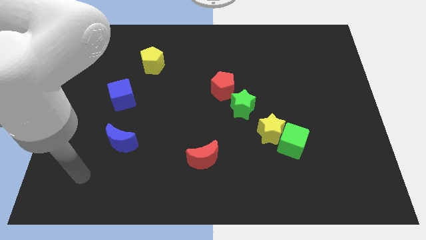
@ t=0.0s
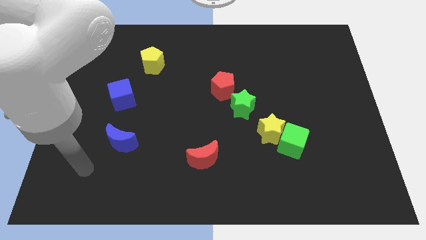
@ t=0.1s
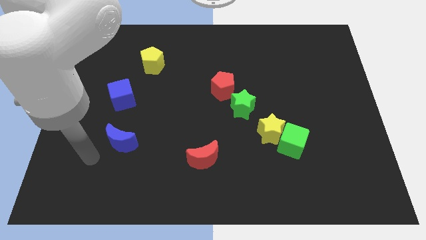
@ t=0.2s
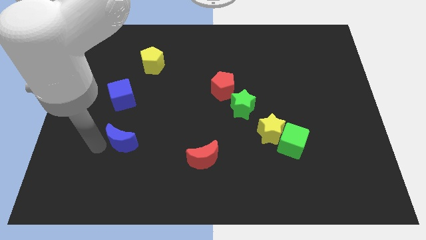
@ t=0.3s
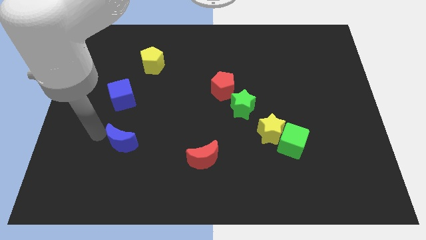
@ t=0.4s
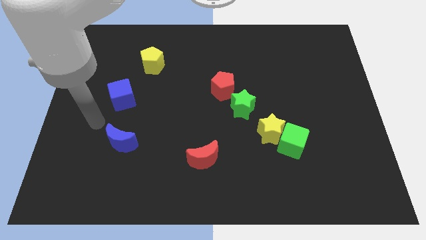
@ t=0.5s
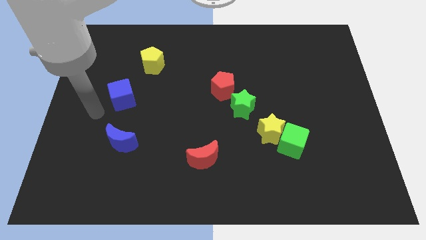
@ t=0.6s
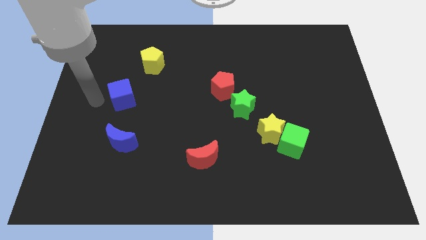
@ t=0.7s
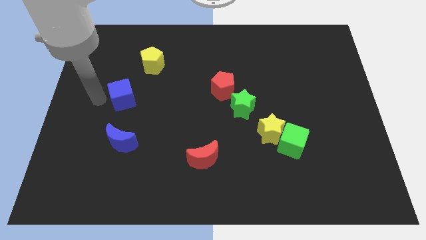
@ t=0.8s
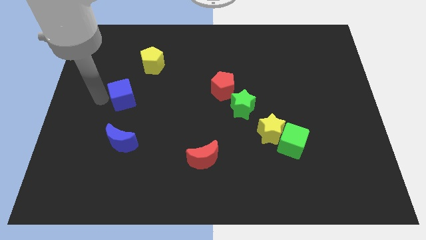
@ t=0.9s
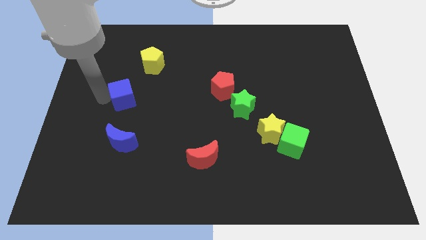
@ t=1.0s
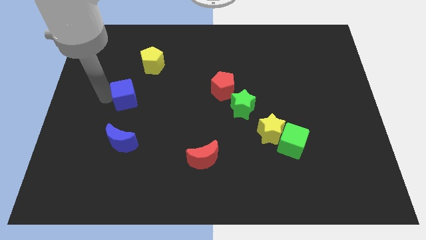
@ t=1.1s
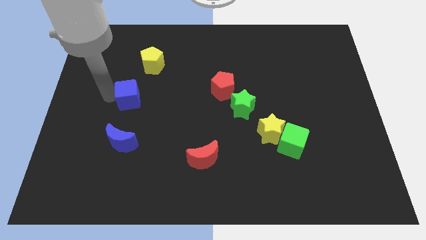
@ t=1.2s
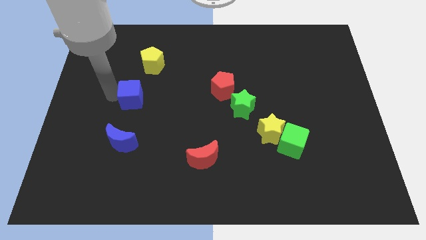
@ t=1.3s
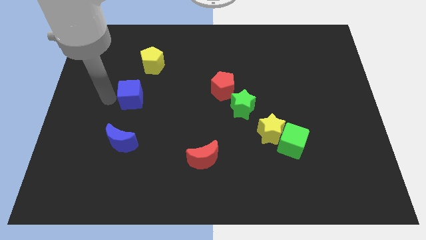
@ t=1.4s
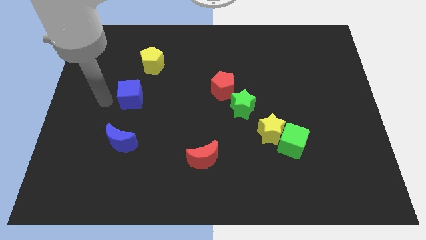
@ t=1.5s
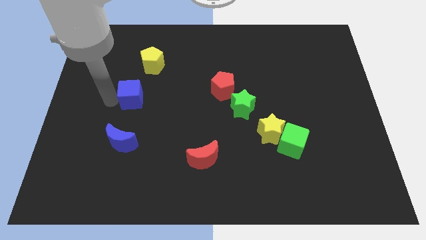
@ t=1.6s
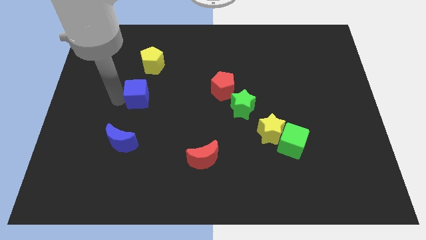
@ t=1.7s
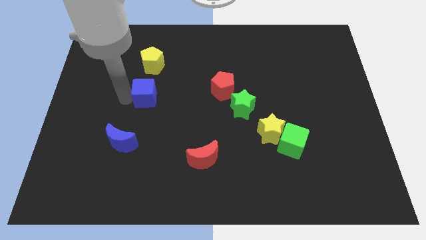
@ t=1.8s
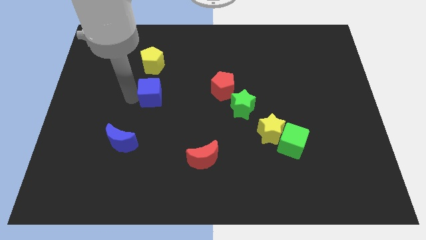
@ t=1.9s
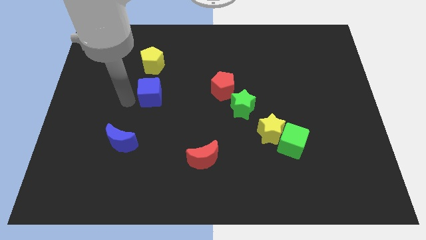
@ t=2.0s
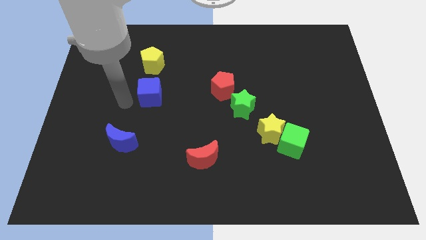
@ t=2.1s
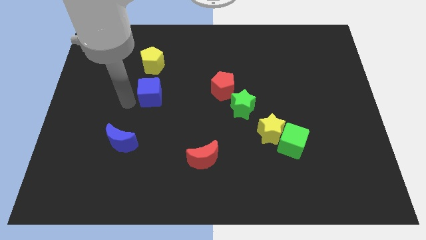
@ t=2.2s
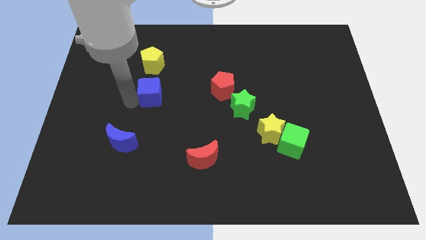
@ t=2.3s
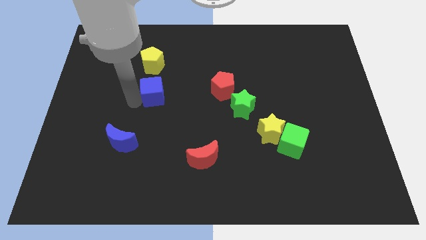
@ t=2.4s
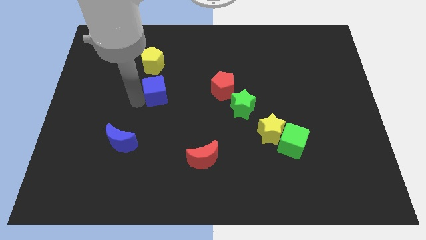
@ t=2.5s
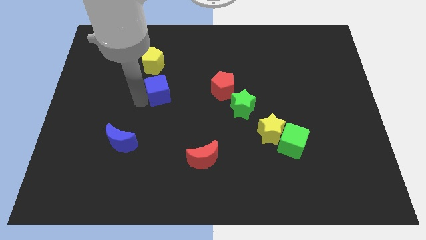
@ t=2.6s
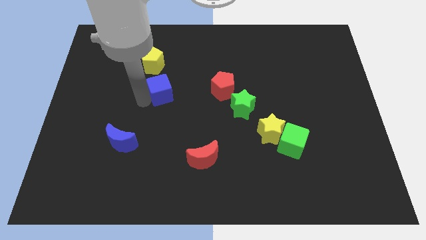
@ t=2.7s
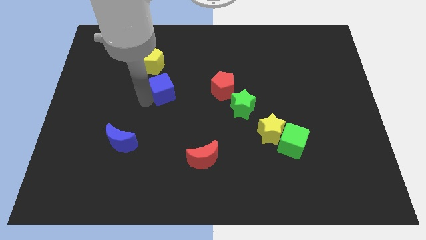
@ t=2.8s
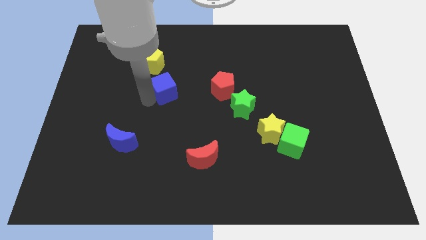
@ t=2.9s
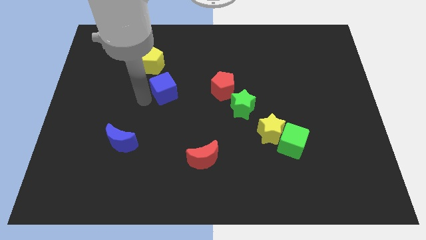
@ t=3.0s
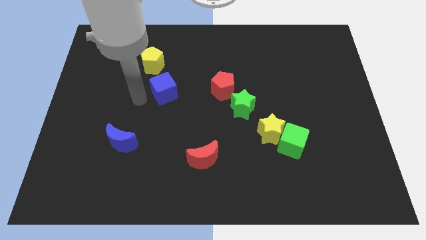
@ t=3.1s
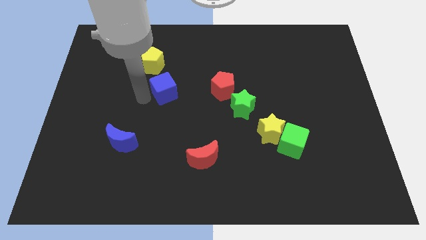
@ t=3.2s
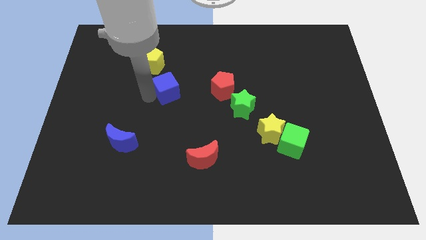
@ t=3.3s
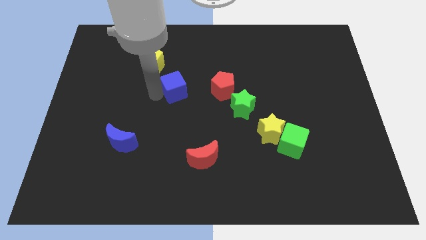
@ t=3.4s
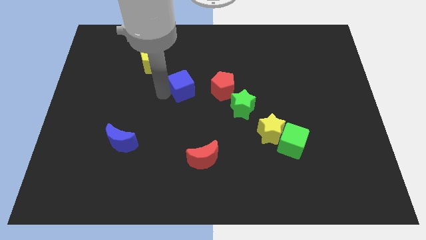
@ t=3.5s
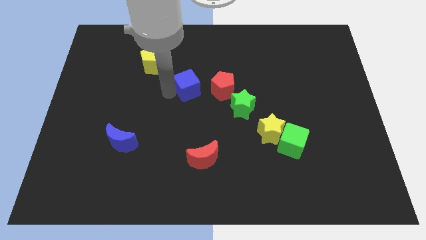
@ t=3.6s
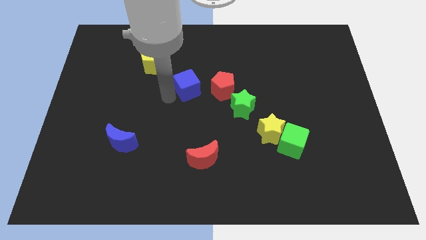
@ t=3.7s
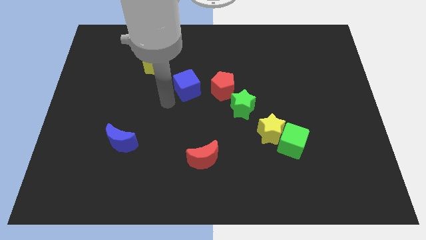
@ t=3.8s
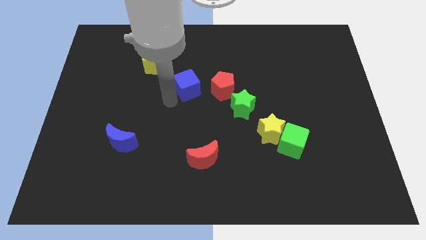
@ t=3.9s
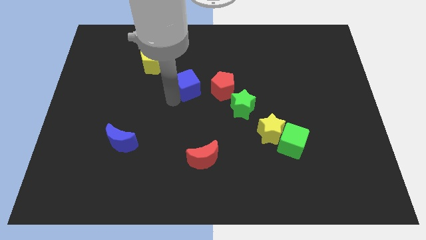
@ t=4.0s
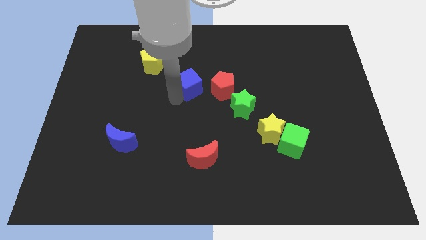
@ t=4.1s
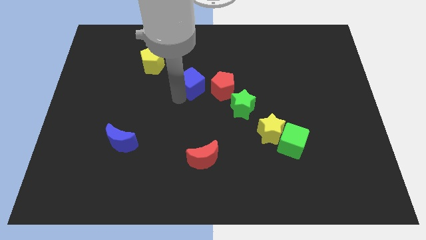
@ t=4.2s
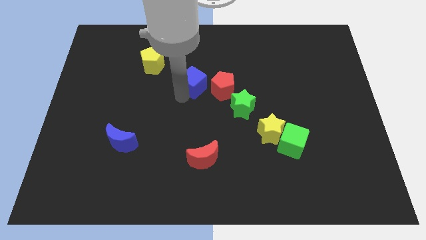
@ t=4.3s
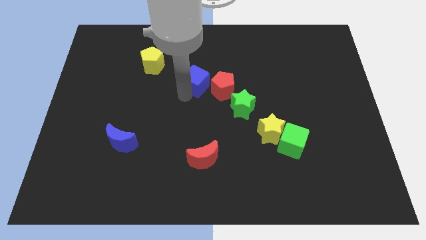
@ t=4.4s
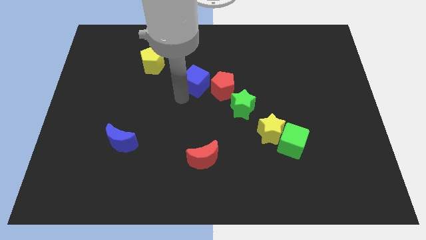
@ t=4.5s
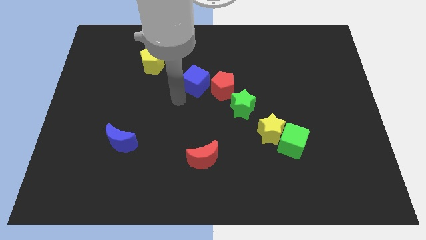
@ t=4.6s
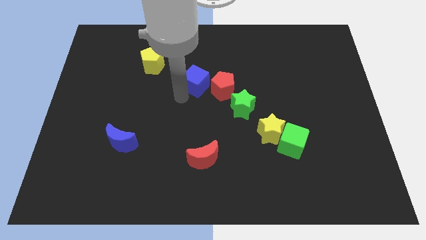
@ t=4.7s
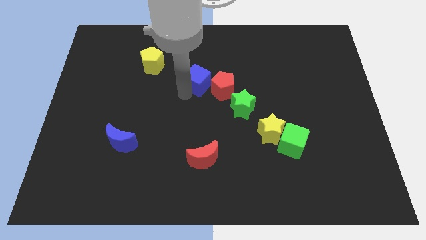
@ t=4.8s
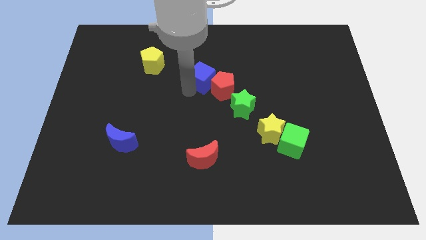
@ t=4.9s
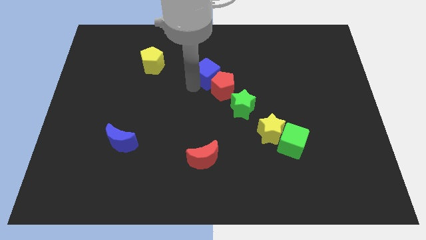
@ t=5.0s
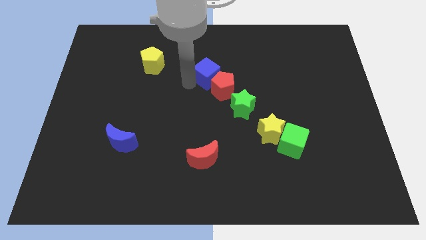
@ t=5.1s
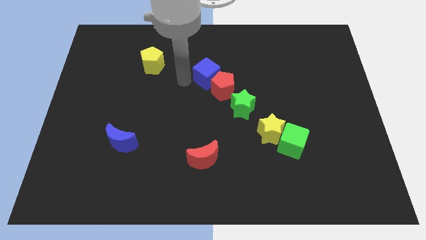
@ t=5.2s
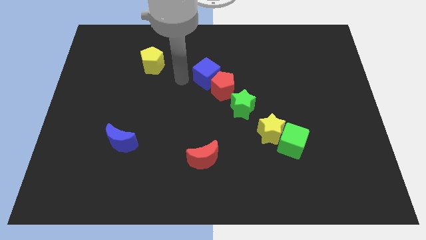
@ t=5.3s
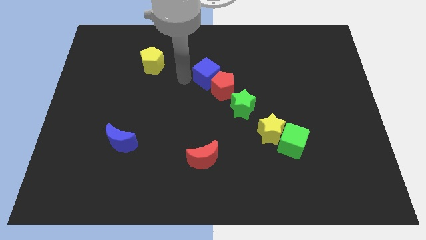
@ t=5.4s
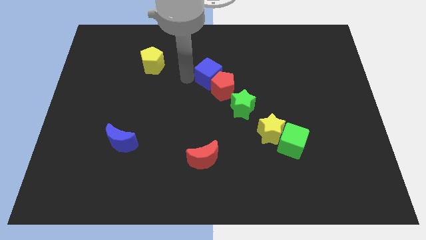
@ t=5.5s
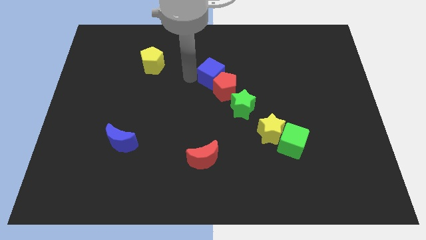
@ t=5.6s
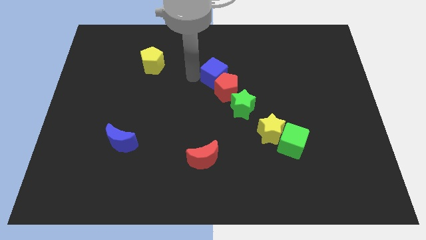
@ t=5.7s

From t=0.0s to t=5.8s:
slide the blue cube right

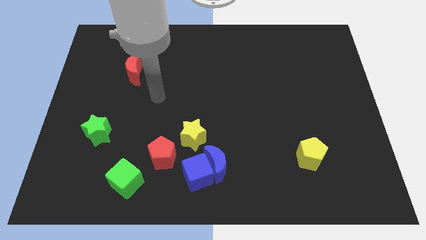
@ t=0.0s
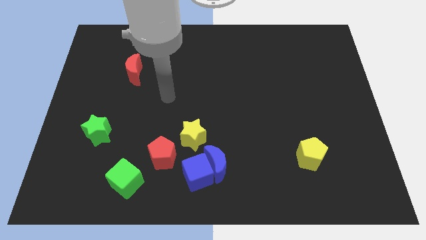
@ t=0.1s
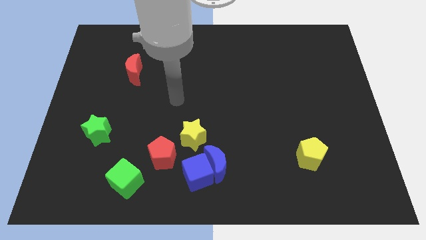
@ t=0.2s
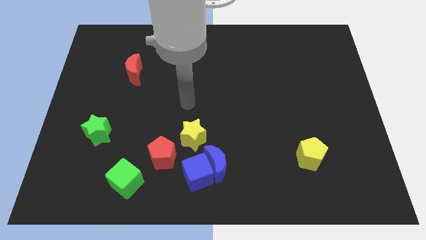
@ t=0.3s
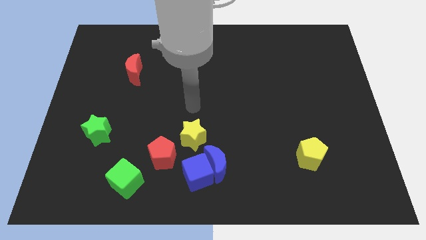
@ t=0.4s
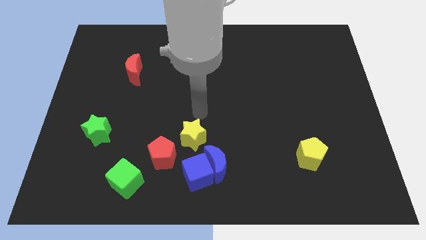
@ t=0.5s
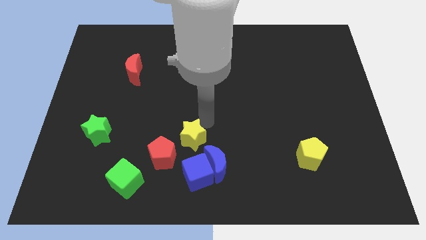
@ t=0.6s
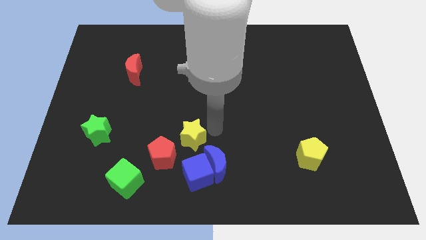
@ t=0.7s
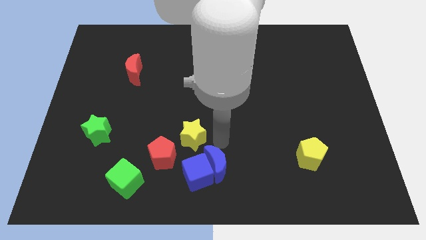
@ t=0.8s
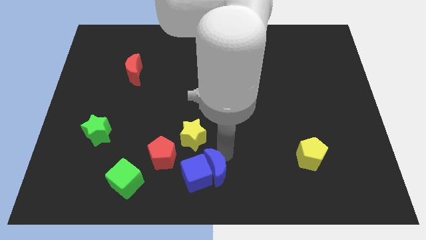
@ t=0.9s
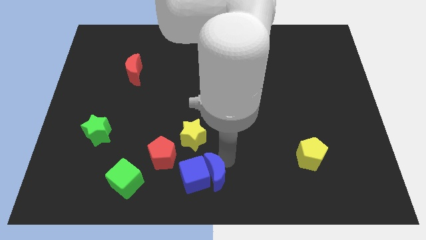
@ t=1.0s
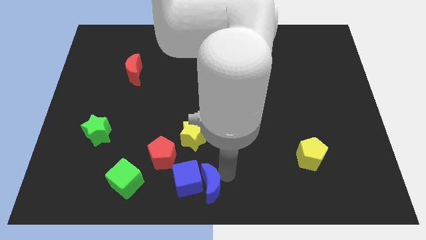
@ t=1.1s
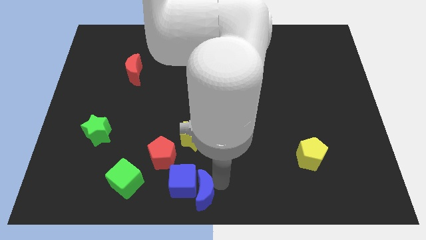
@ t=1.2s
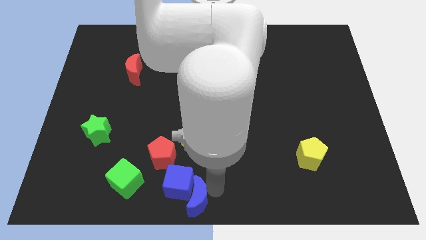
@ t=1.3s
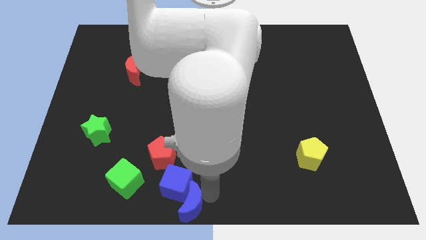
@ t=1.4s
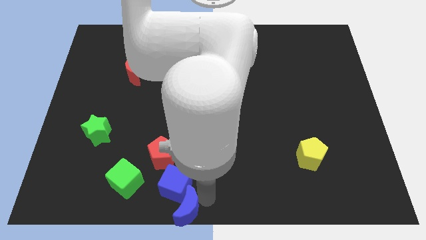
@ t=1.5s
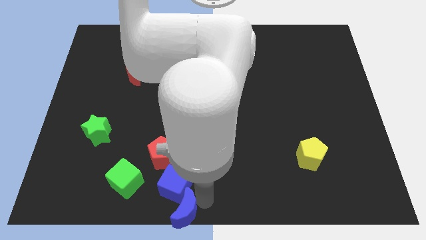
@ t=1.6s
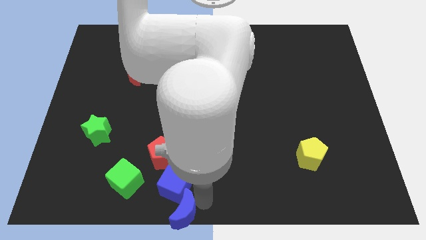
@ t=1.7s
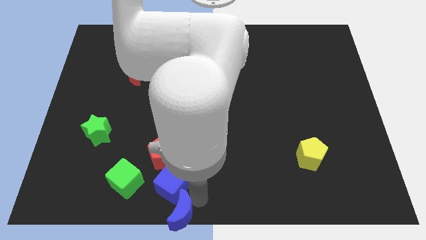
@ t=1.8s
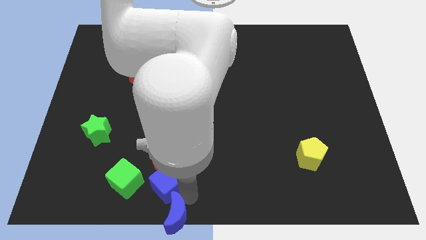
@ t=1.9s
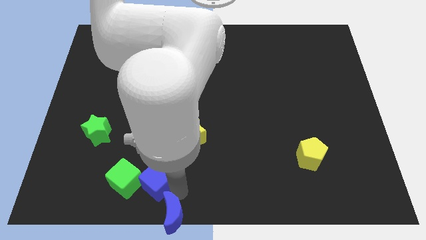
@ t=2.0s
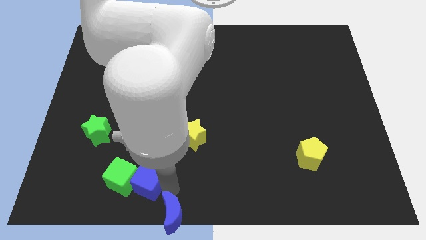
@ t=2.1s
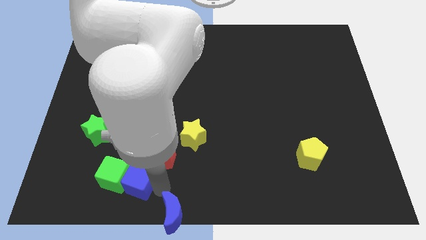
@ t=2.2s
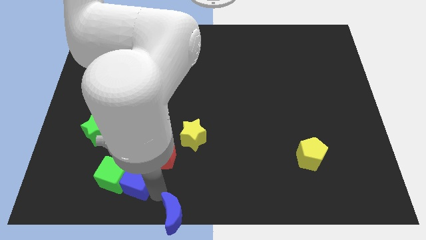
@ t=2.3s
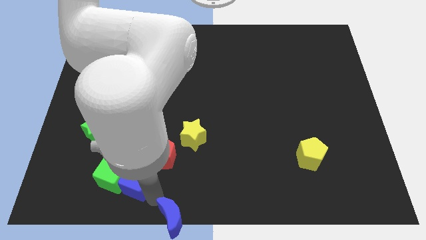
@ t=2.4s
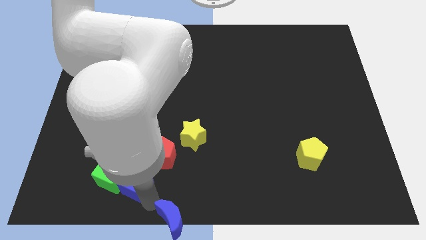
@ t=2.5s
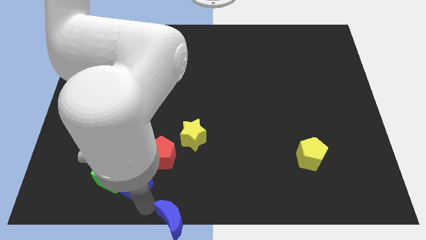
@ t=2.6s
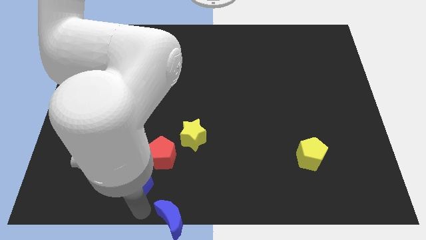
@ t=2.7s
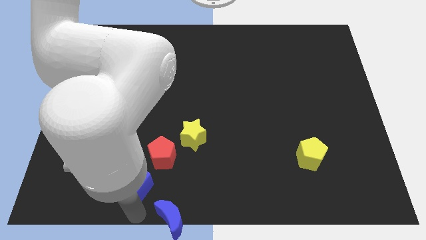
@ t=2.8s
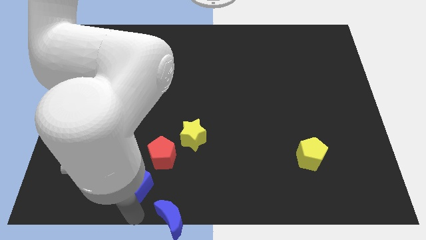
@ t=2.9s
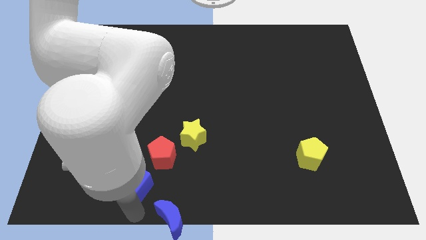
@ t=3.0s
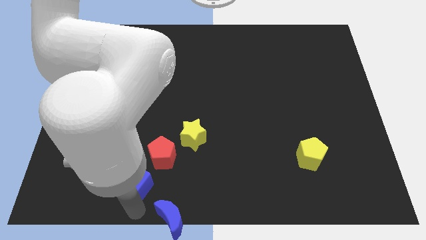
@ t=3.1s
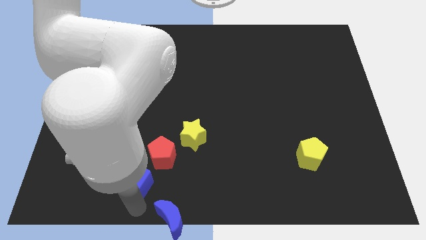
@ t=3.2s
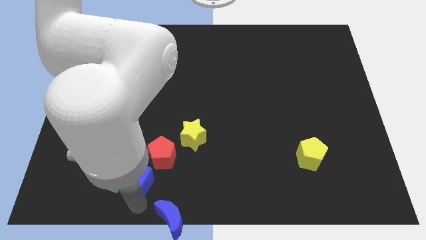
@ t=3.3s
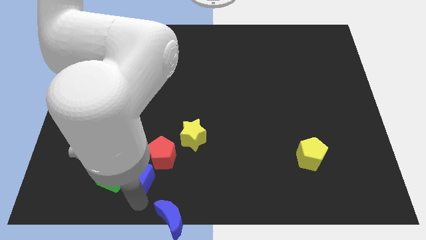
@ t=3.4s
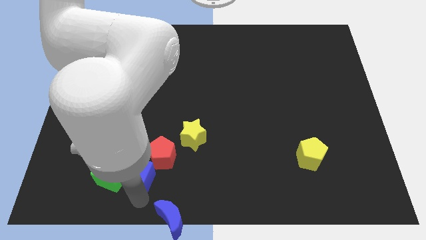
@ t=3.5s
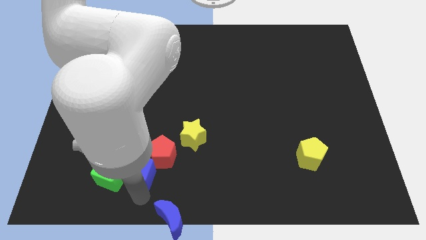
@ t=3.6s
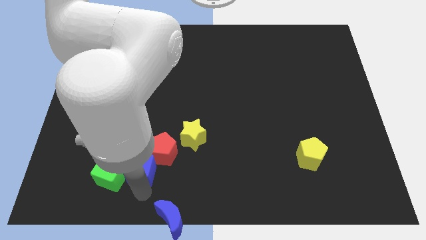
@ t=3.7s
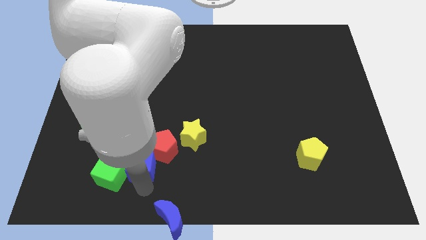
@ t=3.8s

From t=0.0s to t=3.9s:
push the blue cube a bit diagonally upwards and left
